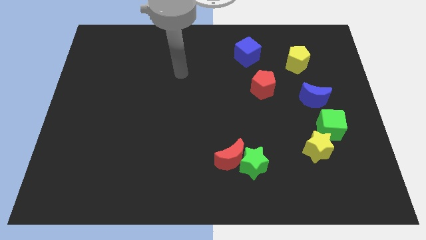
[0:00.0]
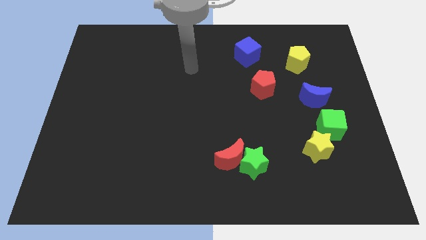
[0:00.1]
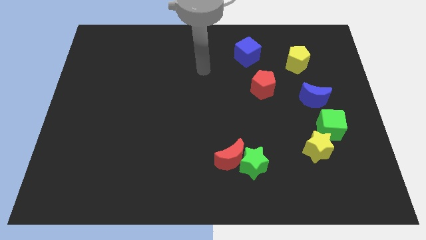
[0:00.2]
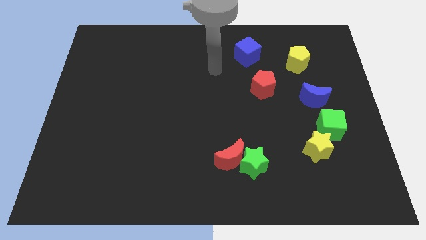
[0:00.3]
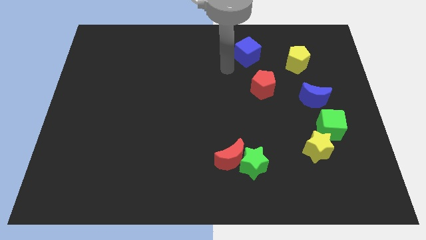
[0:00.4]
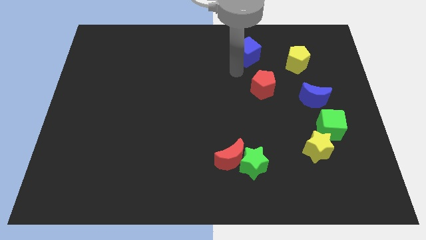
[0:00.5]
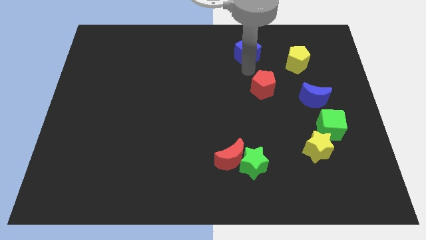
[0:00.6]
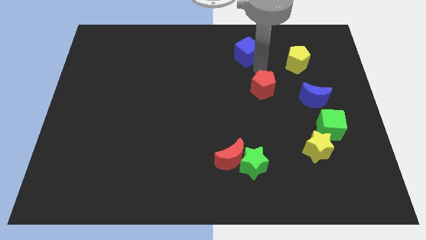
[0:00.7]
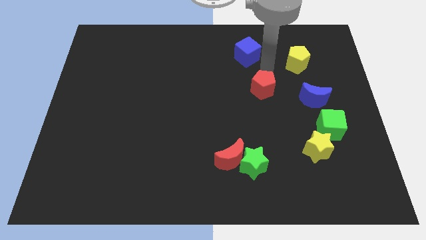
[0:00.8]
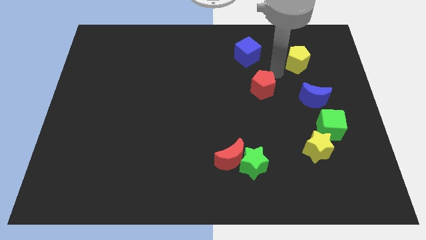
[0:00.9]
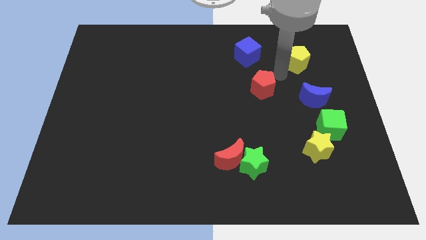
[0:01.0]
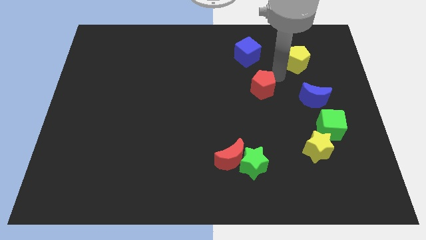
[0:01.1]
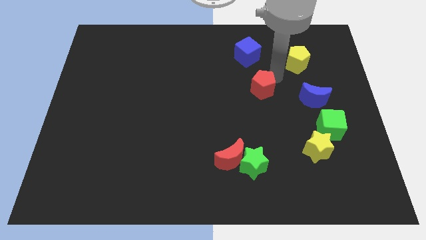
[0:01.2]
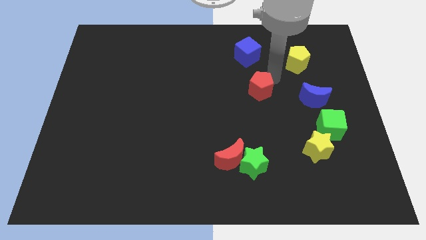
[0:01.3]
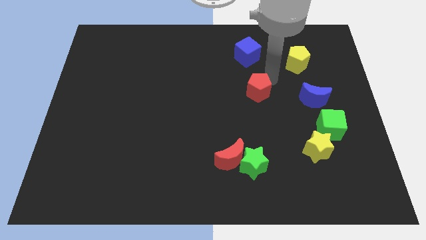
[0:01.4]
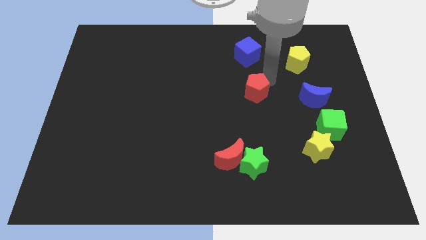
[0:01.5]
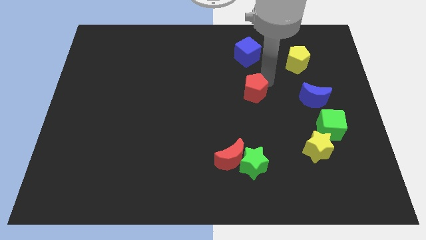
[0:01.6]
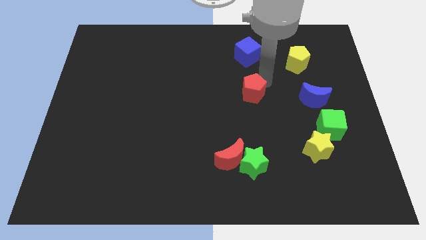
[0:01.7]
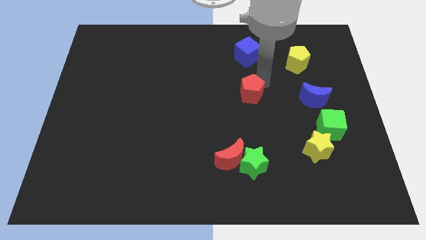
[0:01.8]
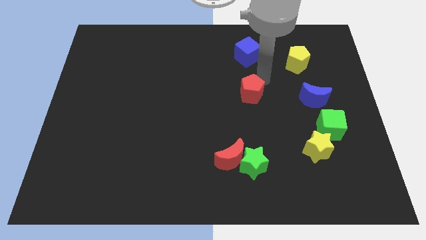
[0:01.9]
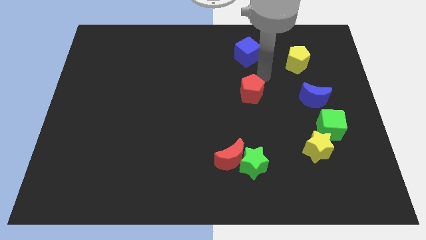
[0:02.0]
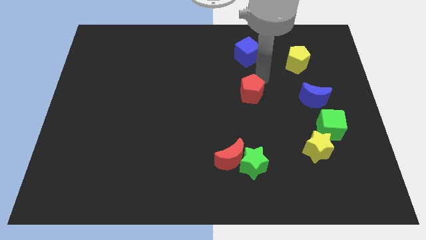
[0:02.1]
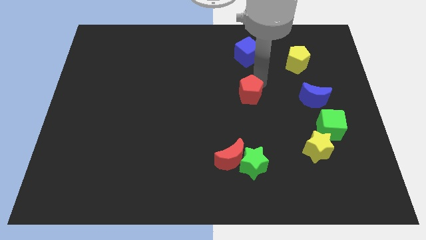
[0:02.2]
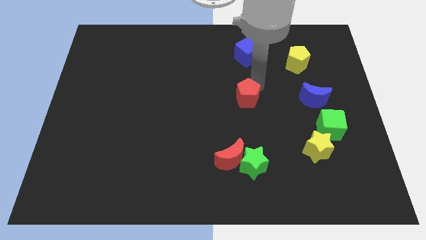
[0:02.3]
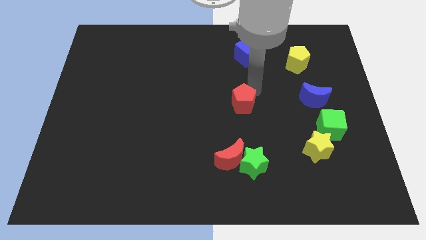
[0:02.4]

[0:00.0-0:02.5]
slightly move the red pentagon down and left diagonally

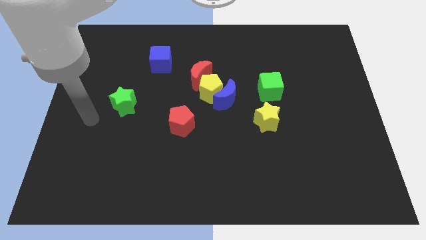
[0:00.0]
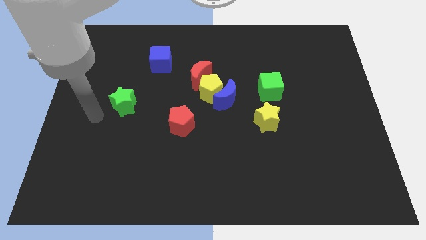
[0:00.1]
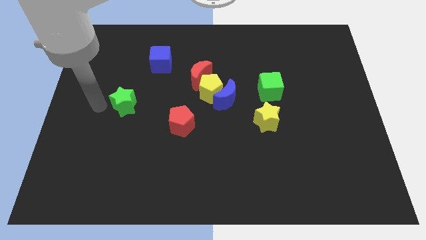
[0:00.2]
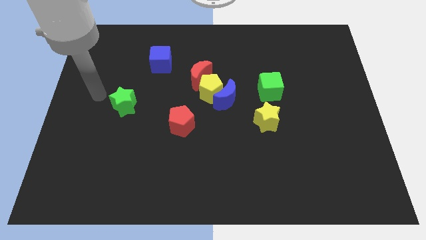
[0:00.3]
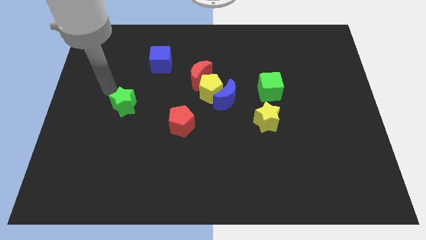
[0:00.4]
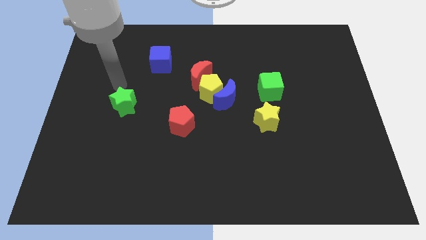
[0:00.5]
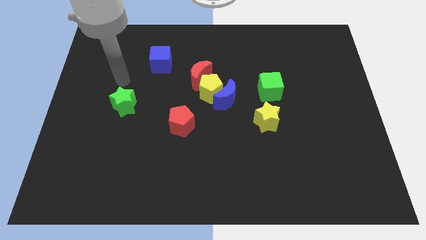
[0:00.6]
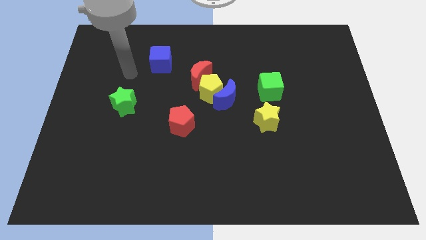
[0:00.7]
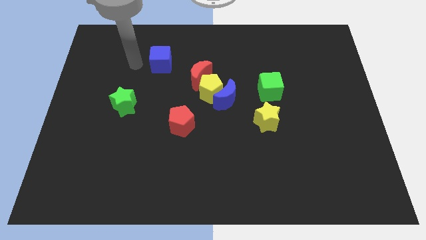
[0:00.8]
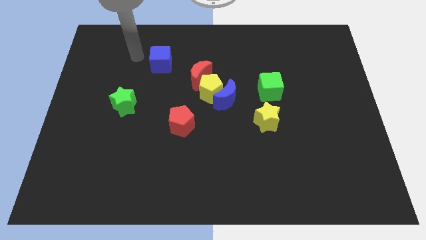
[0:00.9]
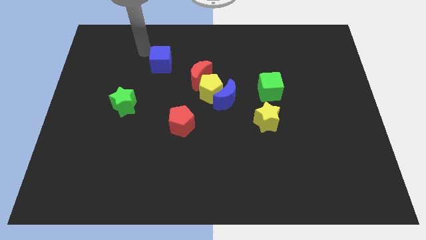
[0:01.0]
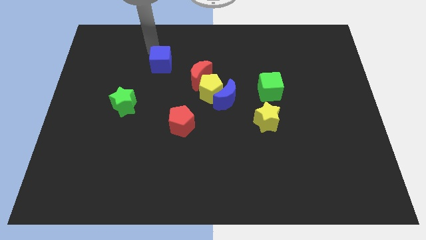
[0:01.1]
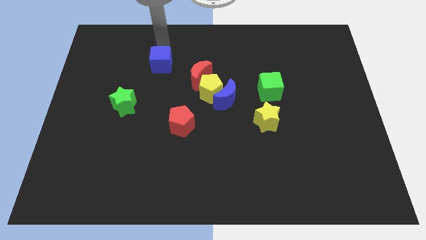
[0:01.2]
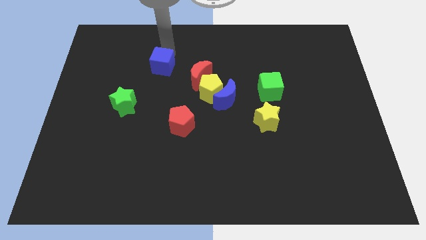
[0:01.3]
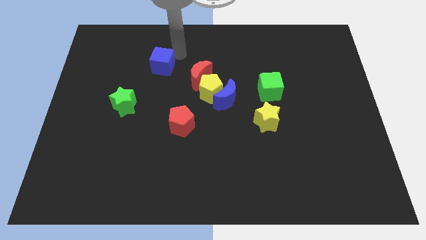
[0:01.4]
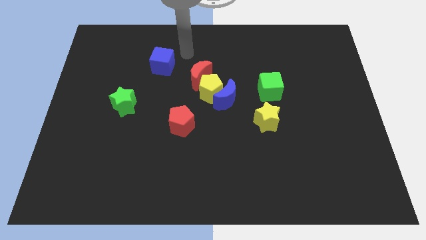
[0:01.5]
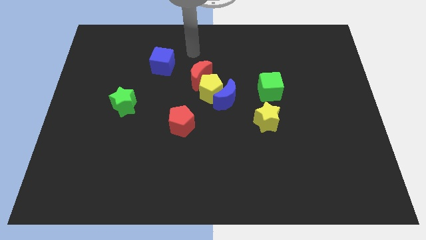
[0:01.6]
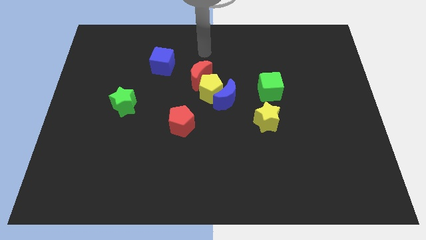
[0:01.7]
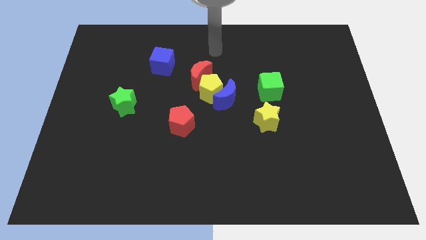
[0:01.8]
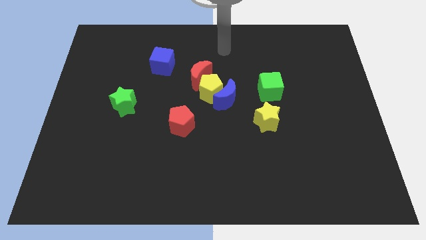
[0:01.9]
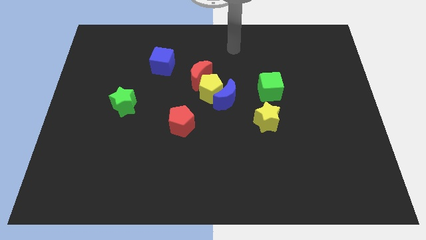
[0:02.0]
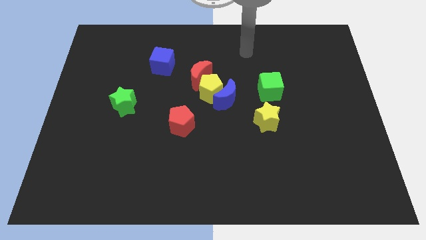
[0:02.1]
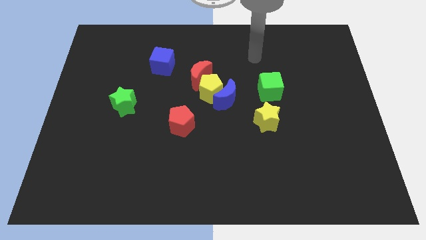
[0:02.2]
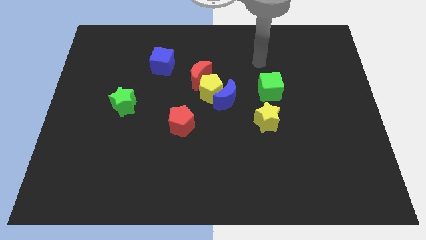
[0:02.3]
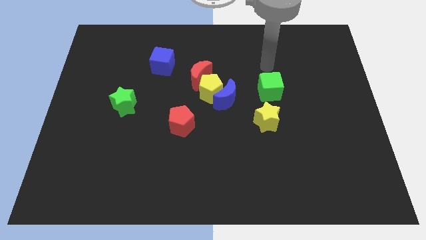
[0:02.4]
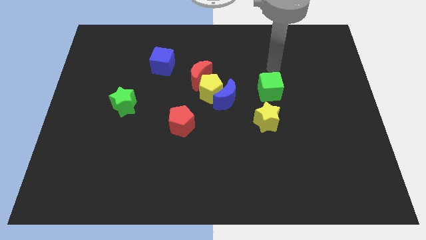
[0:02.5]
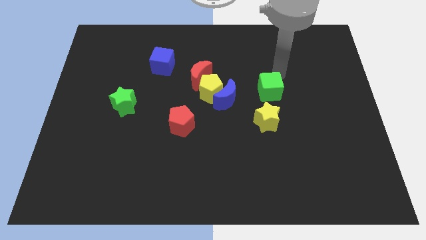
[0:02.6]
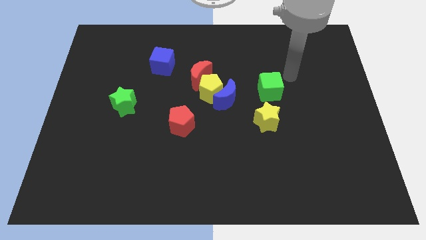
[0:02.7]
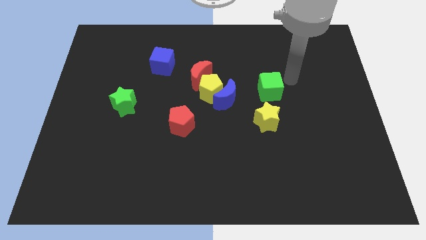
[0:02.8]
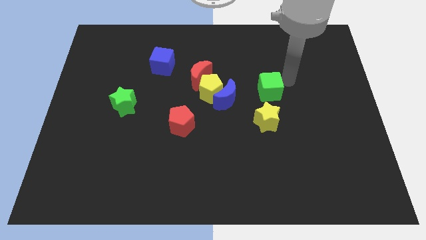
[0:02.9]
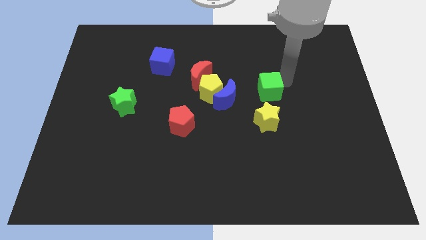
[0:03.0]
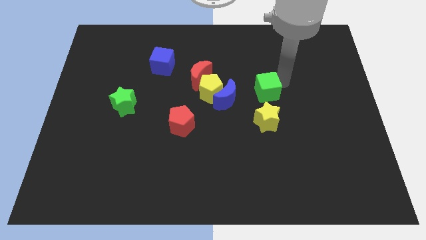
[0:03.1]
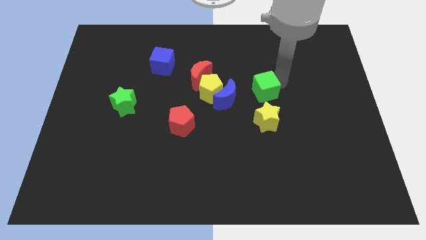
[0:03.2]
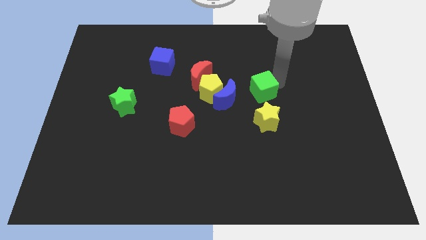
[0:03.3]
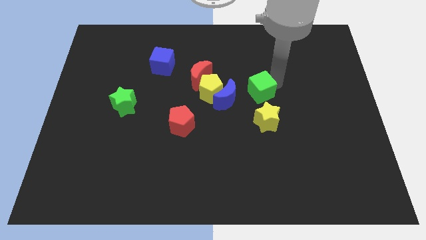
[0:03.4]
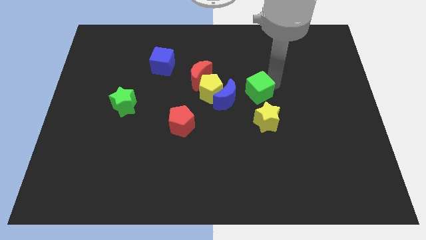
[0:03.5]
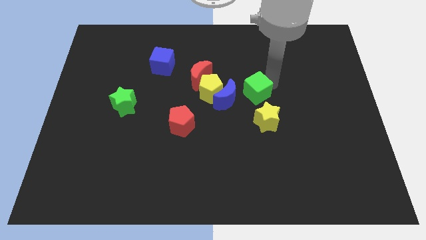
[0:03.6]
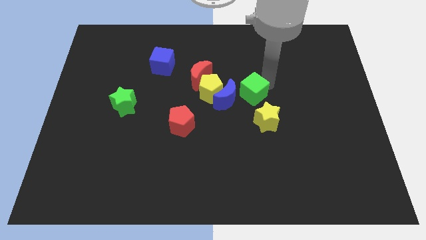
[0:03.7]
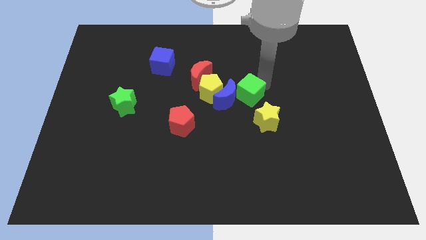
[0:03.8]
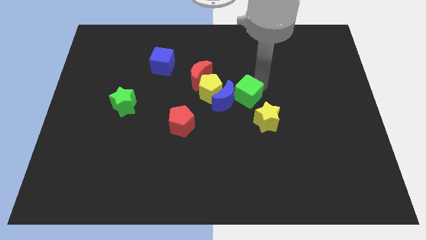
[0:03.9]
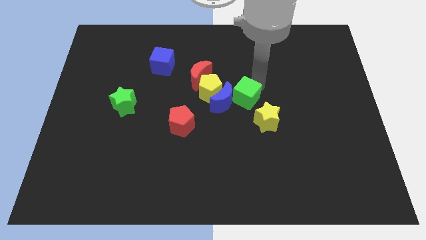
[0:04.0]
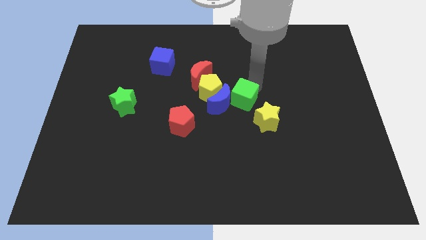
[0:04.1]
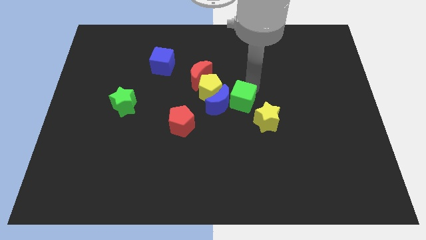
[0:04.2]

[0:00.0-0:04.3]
slightly push the green cube downwards and then to the left

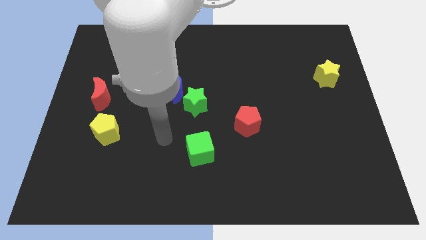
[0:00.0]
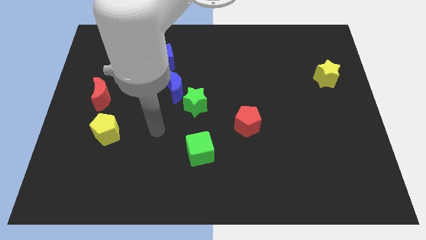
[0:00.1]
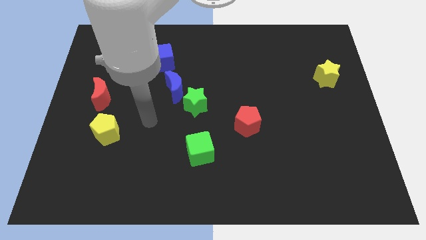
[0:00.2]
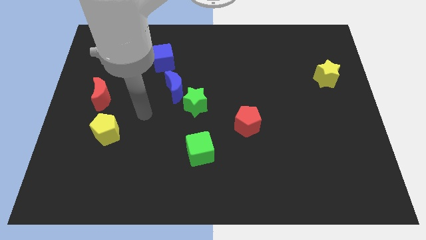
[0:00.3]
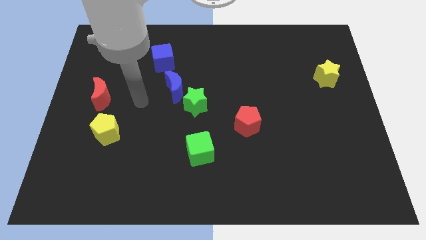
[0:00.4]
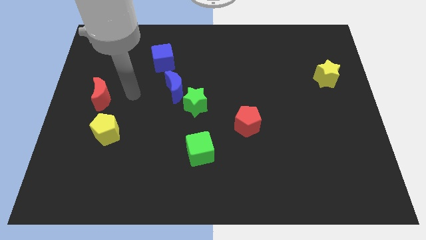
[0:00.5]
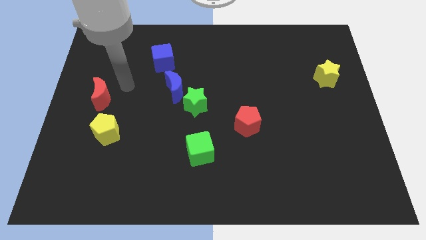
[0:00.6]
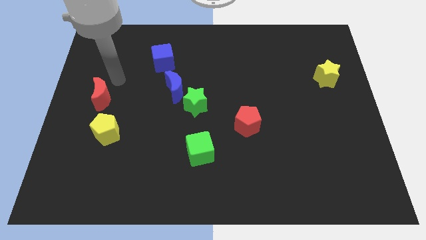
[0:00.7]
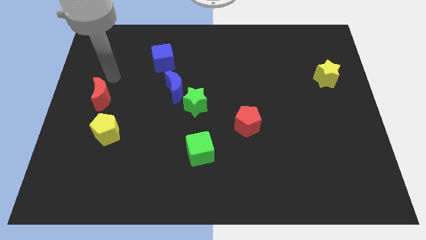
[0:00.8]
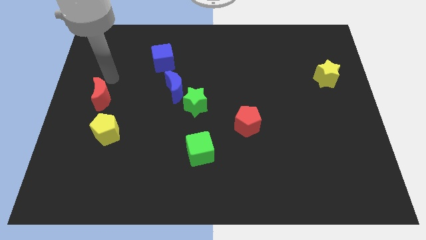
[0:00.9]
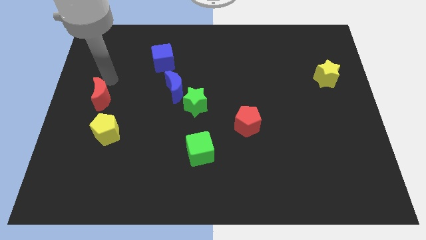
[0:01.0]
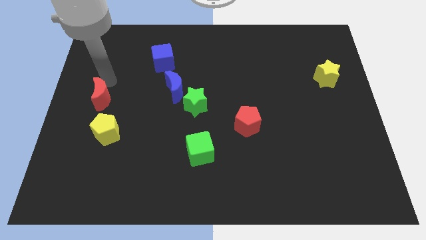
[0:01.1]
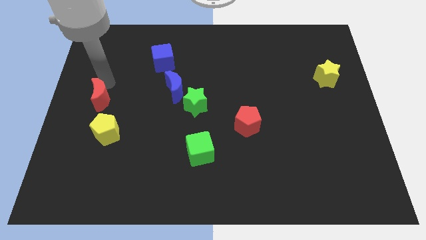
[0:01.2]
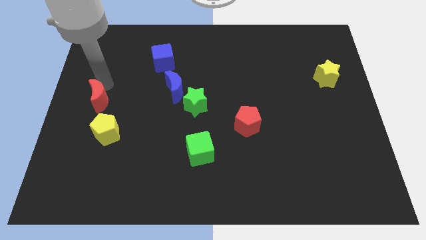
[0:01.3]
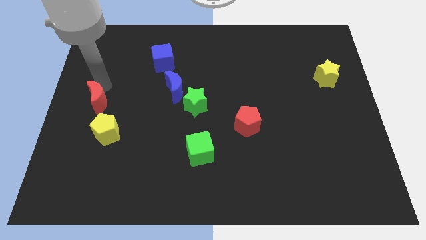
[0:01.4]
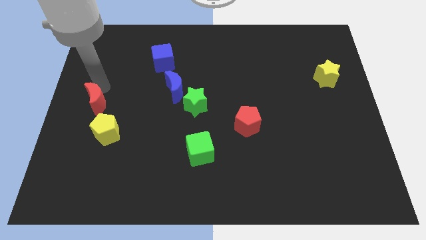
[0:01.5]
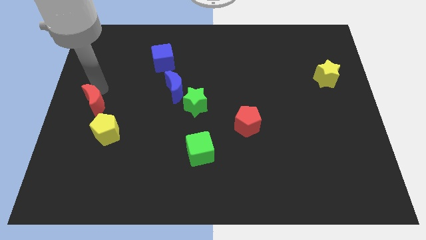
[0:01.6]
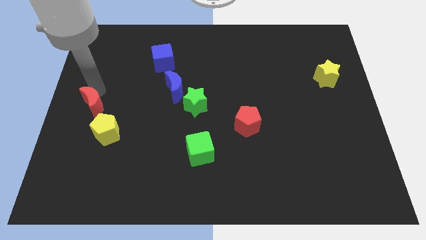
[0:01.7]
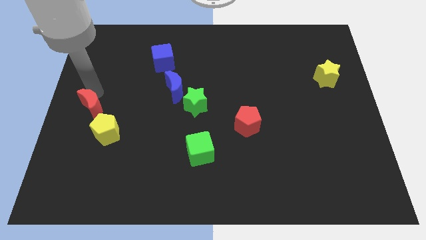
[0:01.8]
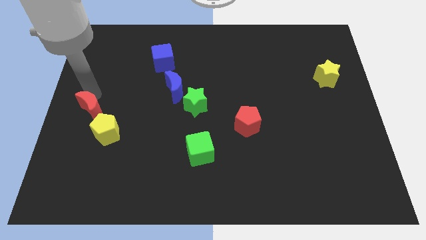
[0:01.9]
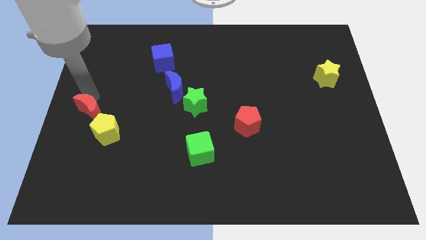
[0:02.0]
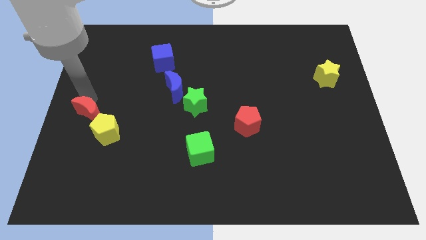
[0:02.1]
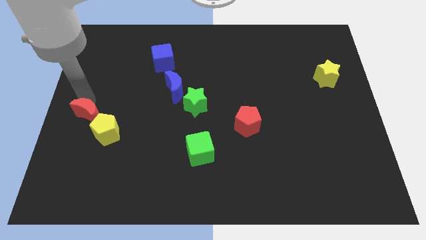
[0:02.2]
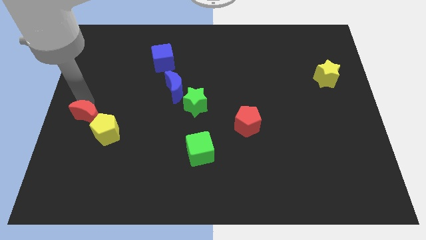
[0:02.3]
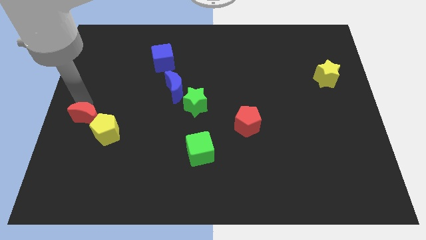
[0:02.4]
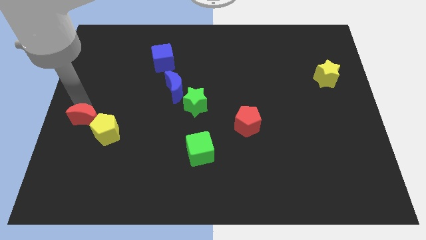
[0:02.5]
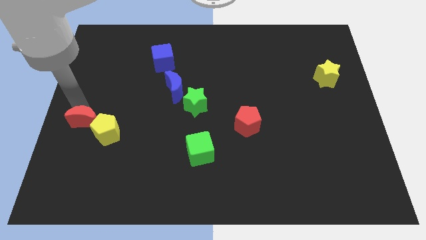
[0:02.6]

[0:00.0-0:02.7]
move the red moon a little bit down
